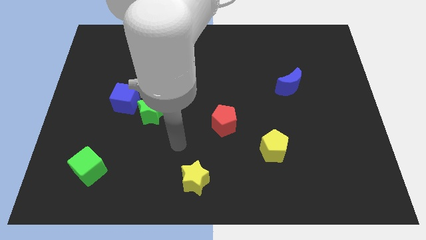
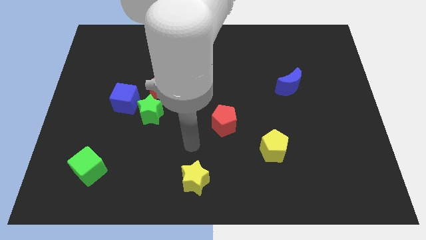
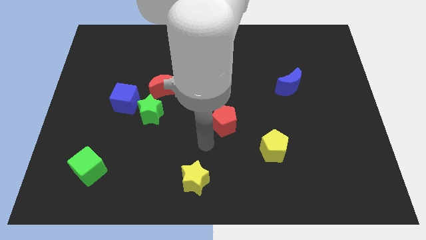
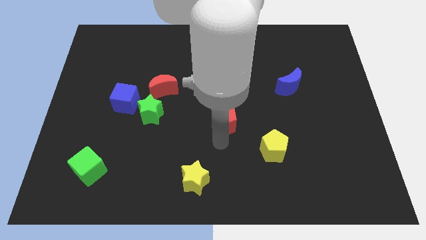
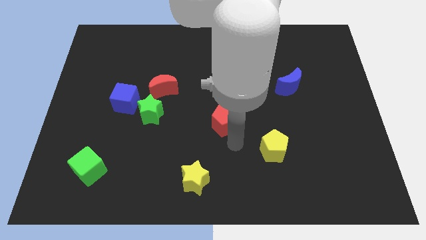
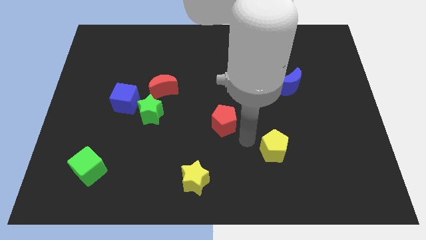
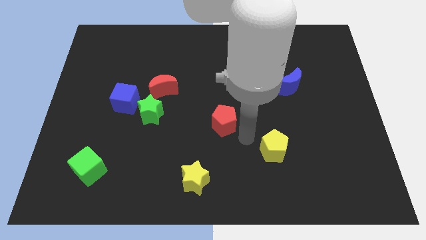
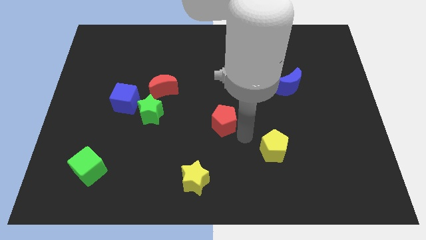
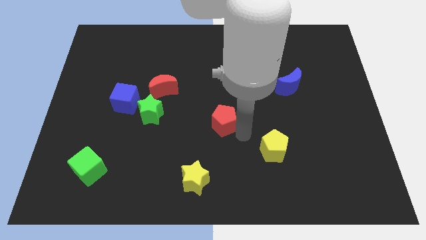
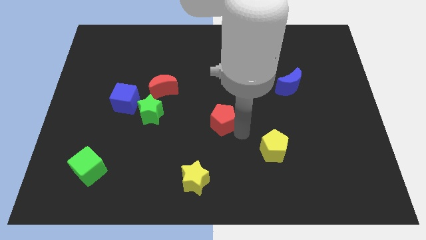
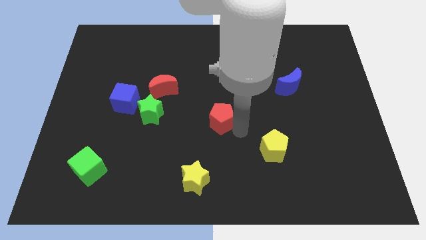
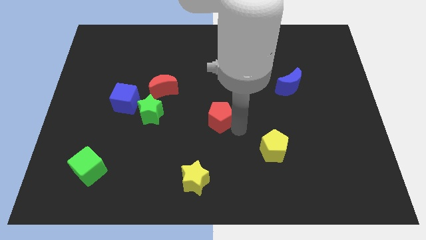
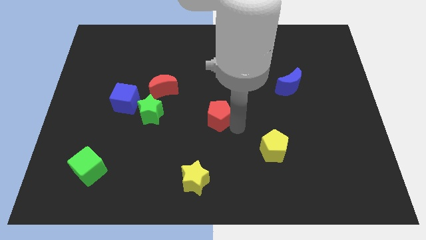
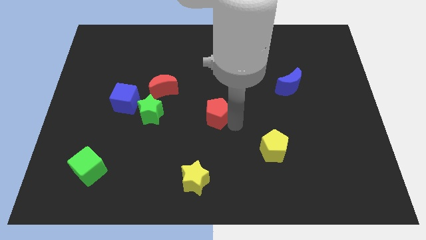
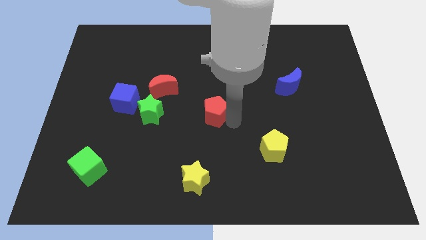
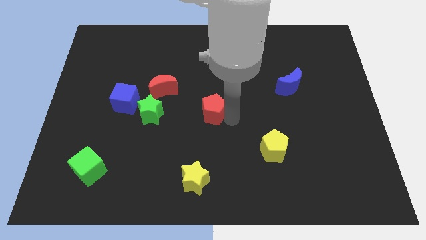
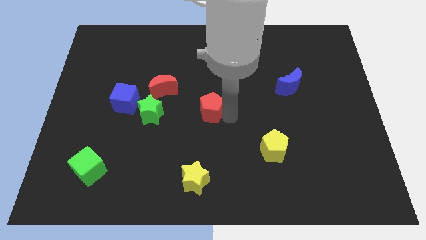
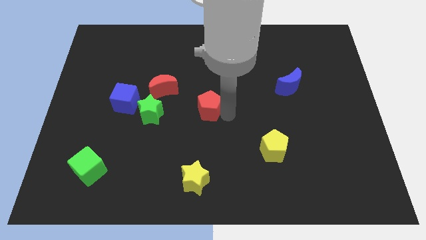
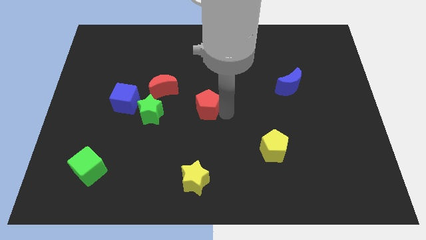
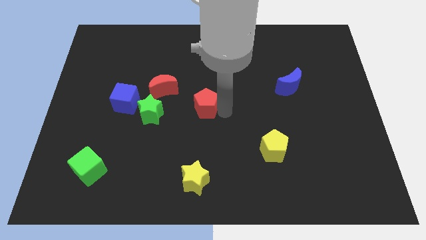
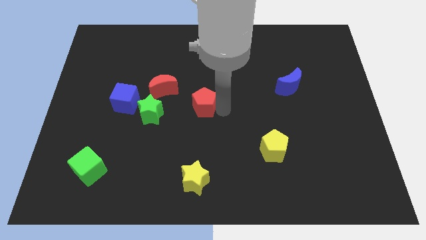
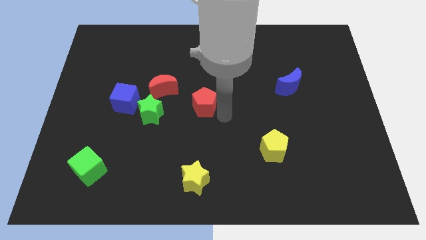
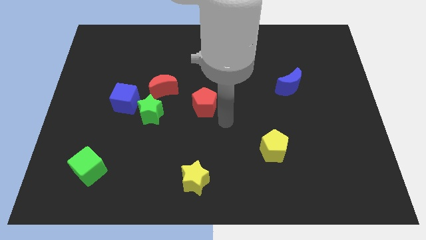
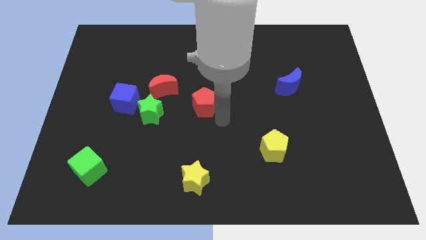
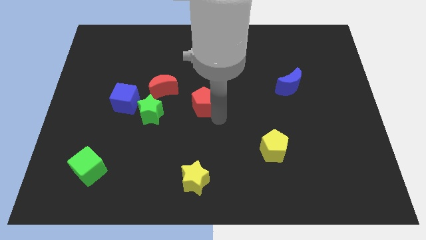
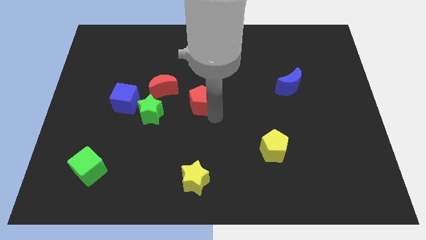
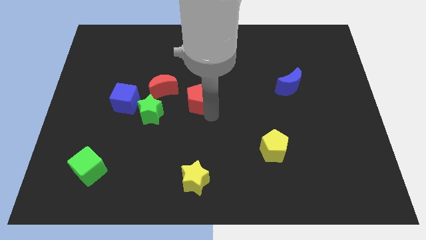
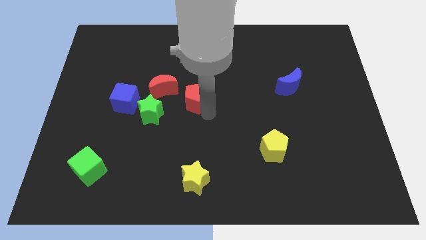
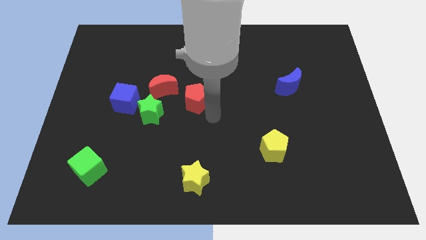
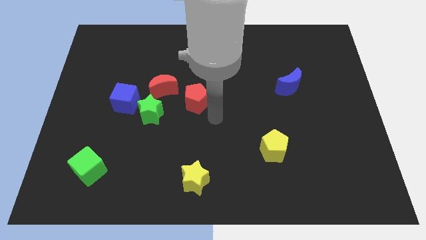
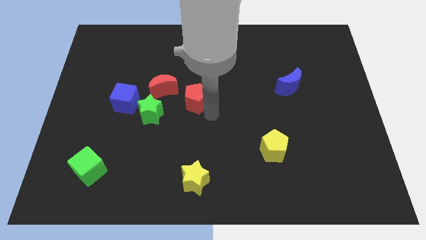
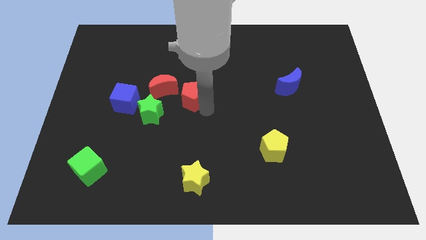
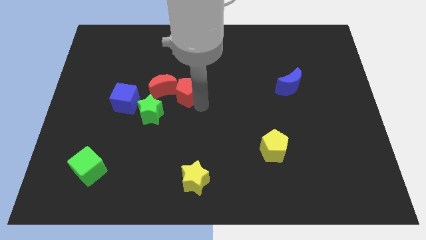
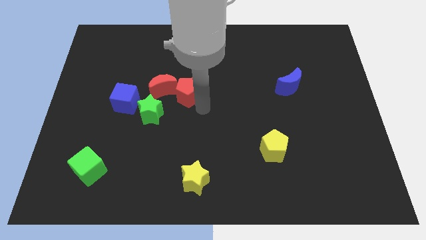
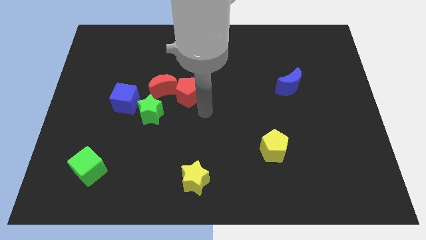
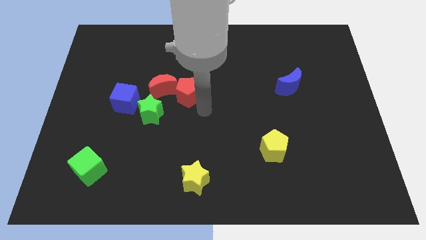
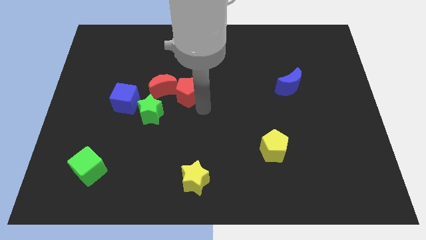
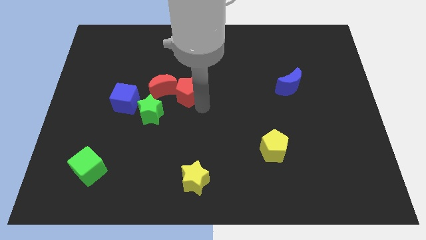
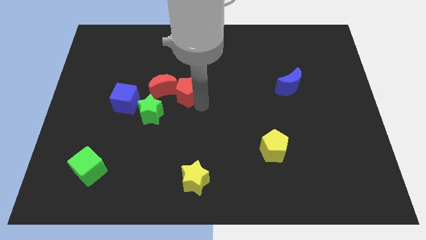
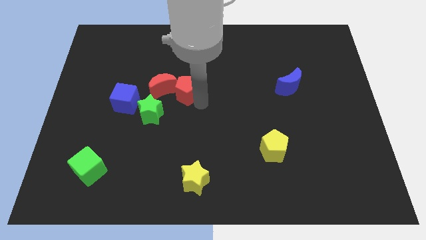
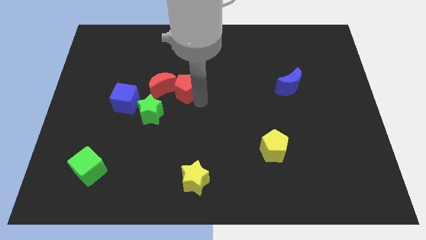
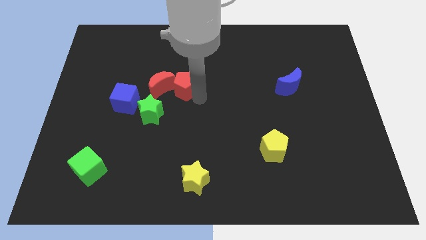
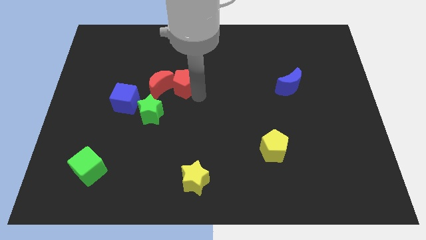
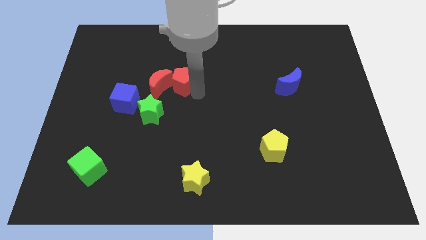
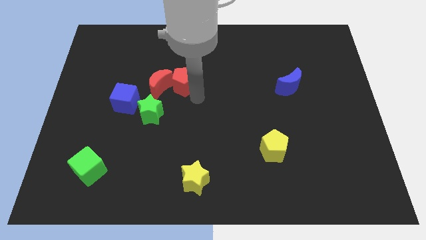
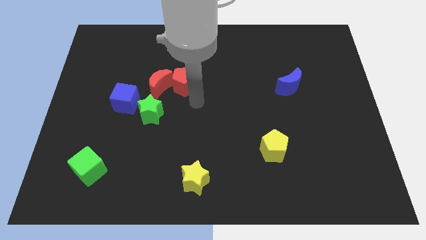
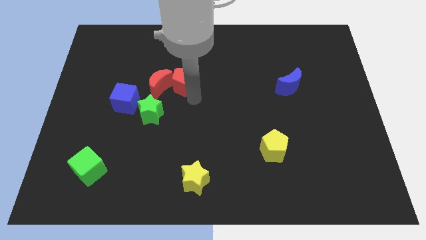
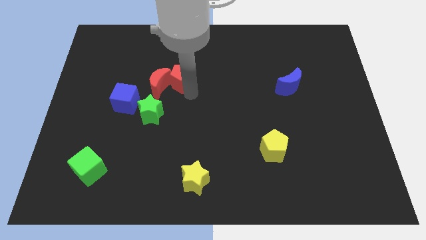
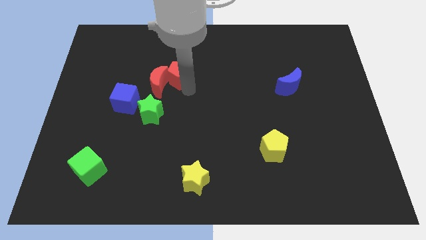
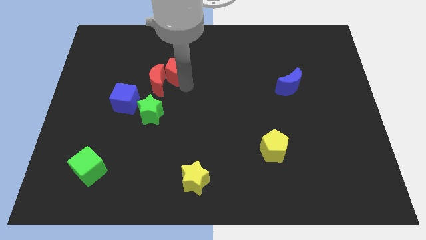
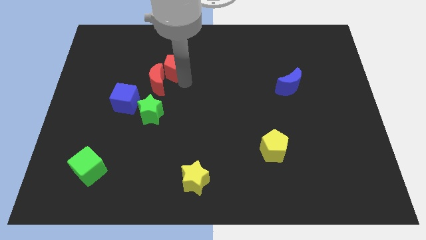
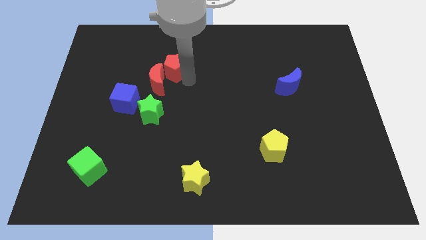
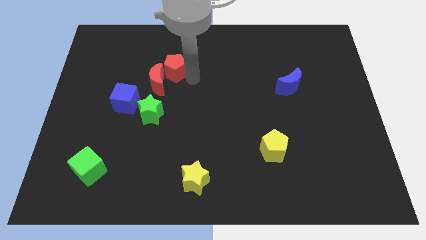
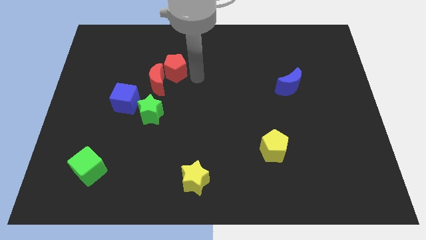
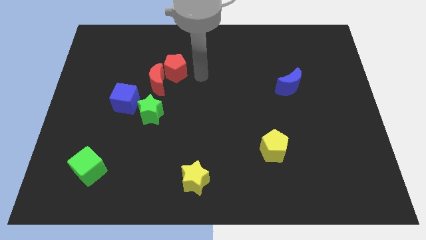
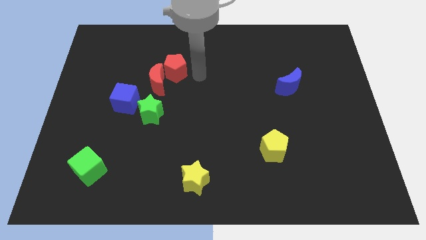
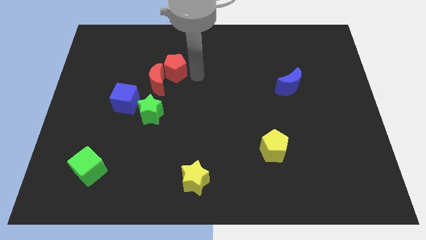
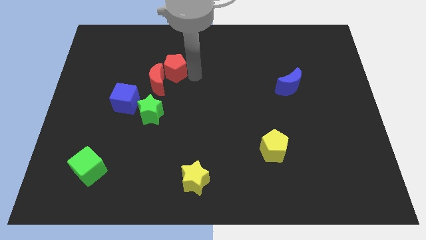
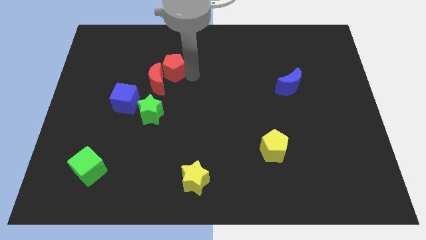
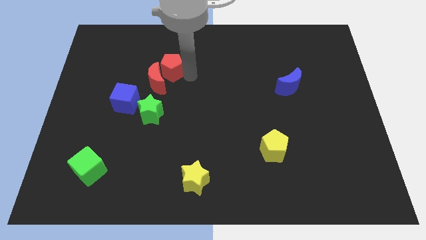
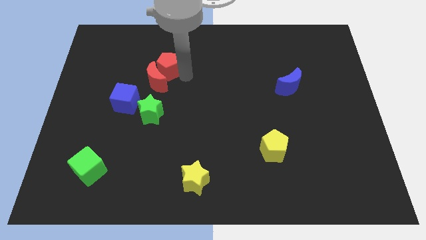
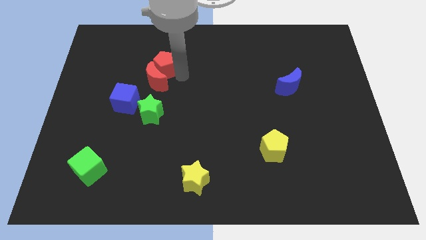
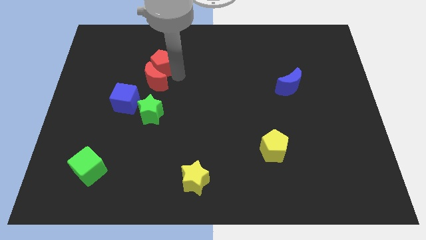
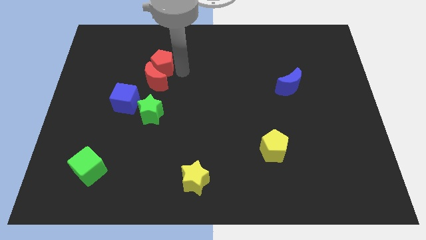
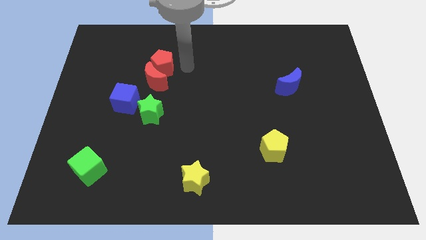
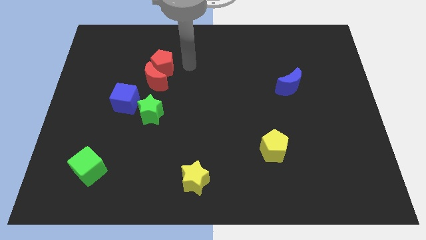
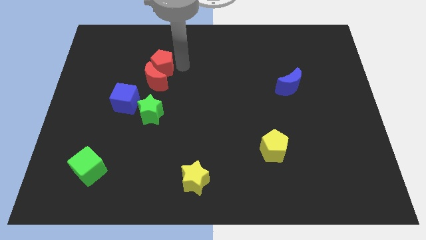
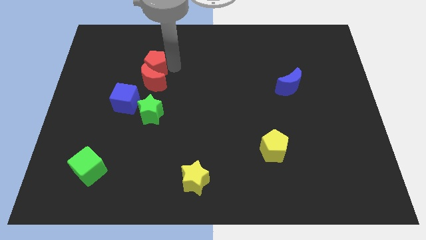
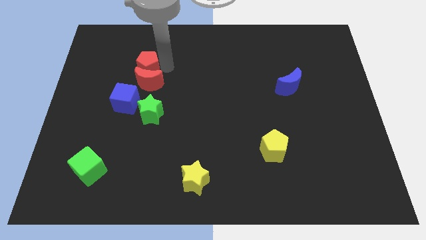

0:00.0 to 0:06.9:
move the red pentagon to the top side of the blue cube

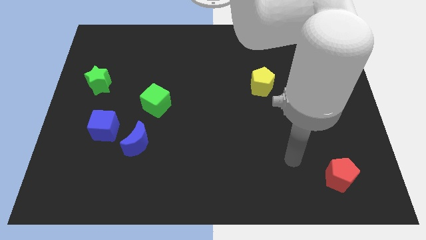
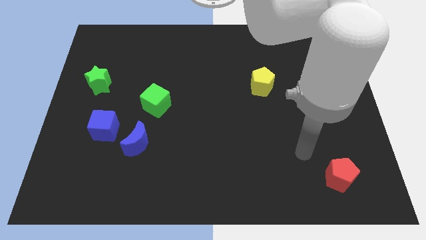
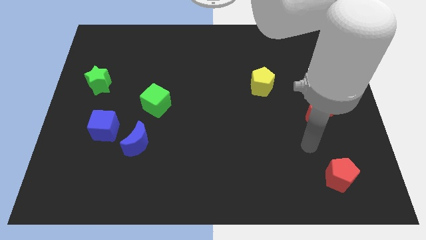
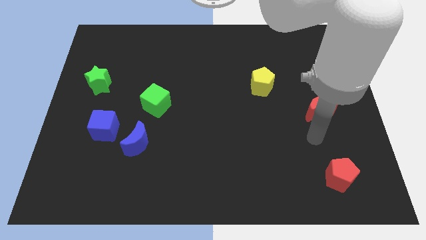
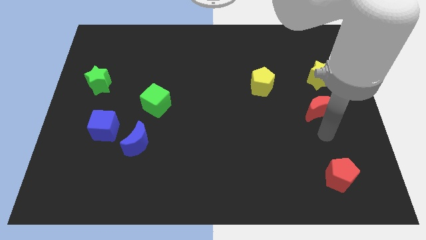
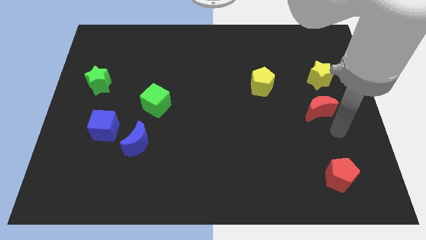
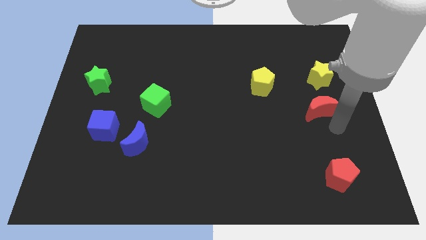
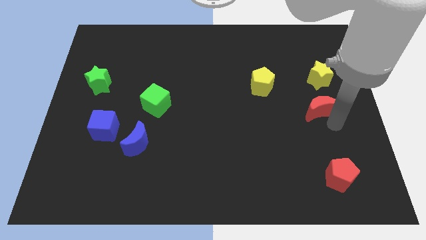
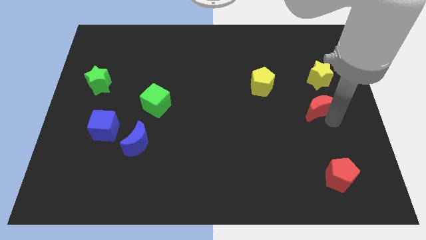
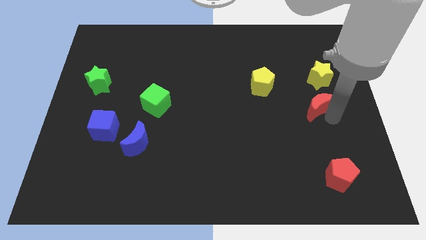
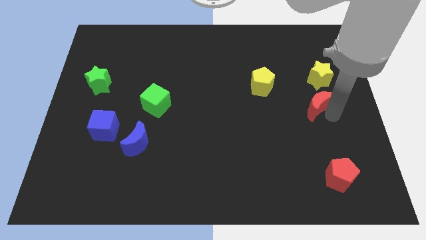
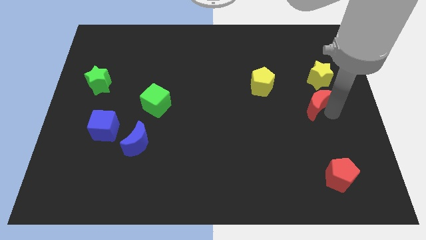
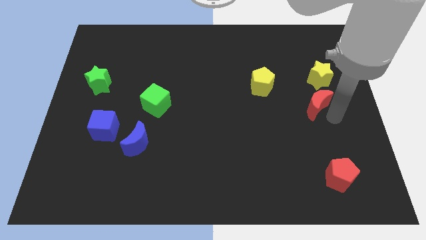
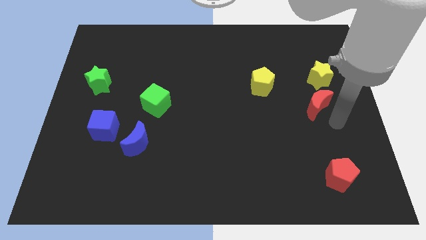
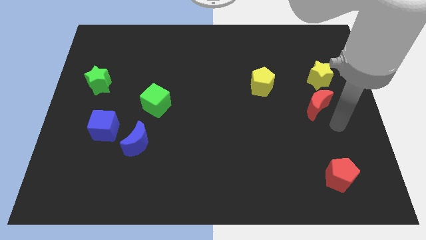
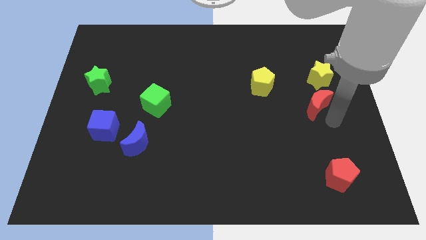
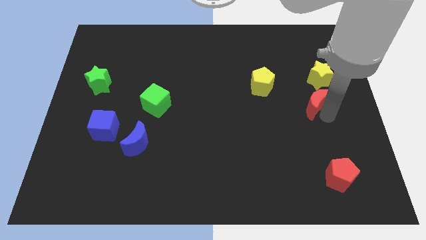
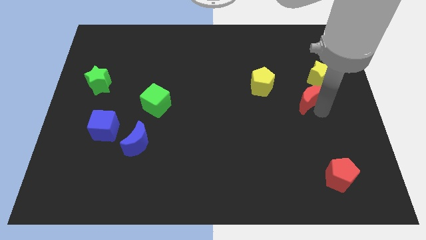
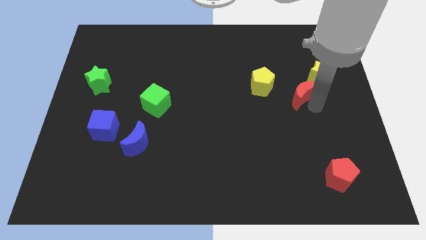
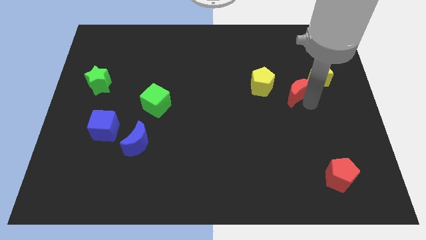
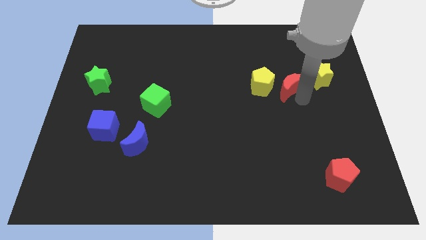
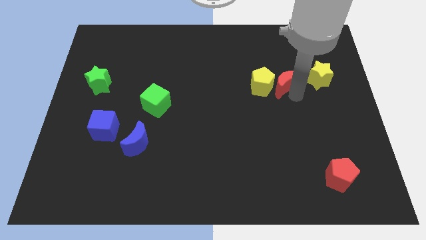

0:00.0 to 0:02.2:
move the red moon to the top right of the yellow pentagon
